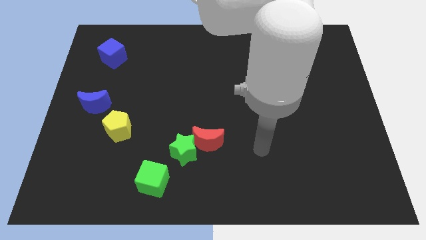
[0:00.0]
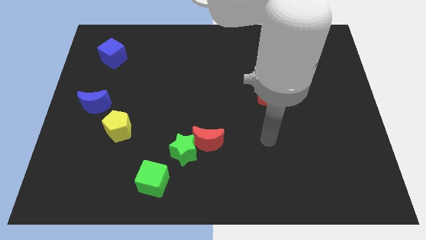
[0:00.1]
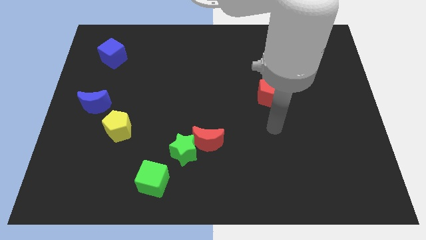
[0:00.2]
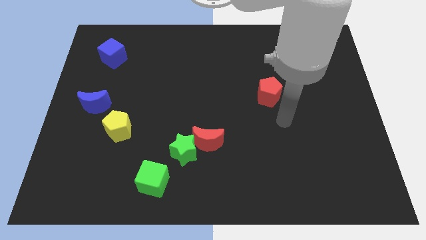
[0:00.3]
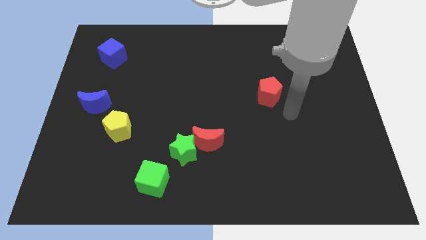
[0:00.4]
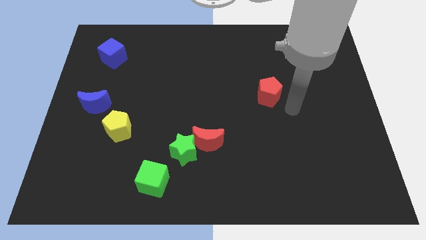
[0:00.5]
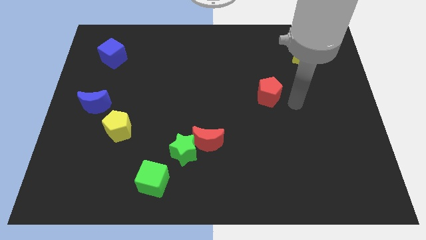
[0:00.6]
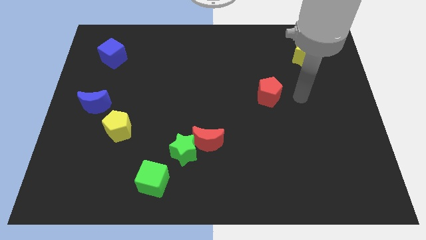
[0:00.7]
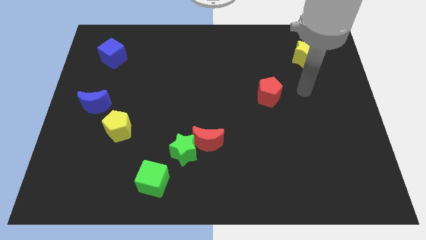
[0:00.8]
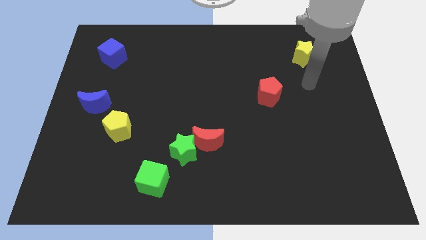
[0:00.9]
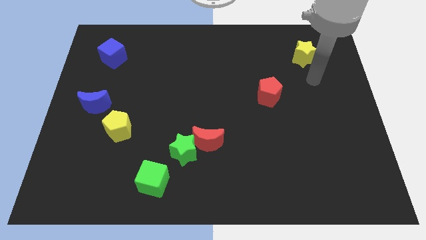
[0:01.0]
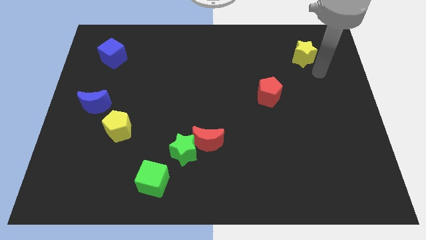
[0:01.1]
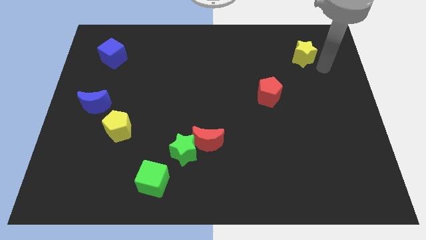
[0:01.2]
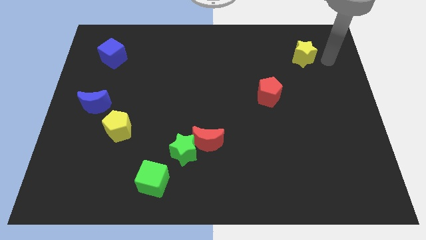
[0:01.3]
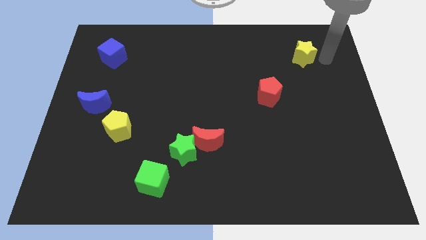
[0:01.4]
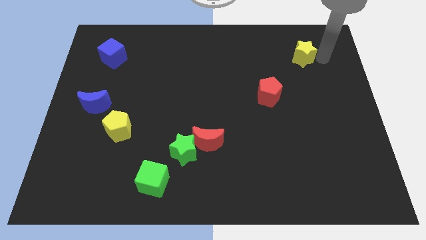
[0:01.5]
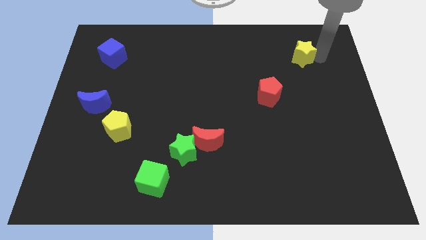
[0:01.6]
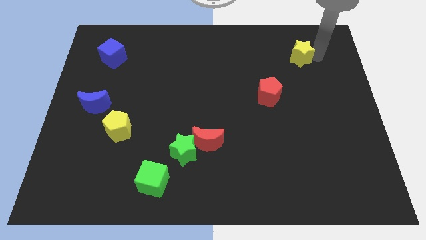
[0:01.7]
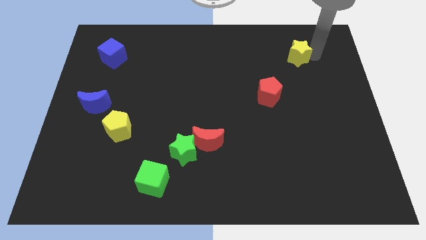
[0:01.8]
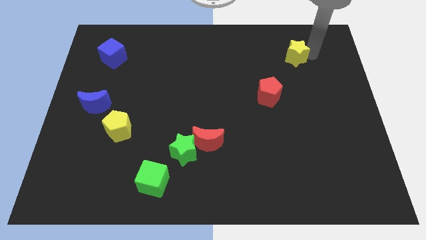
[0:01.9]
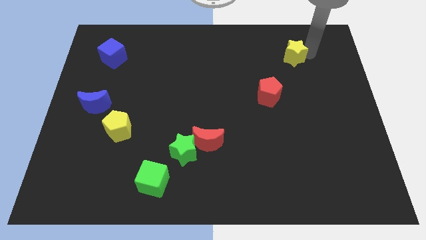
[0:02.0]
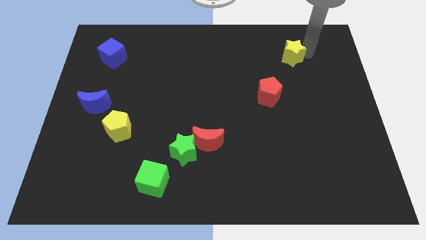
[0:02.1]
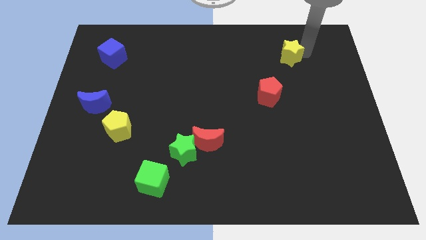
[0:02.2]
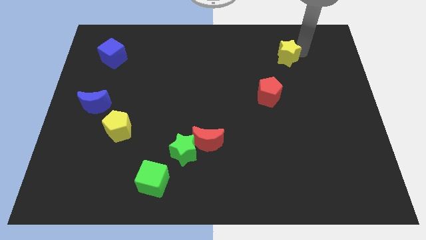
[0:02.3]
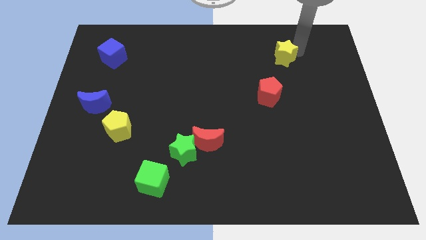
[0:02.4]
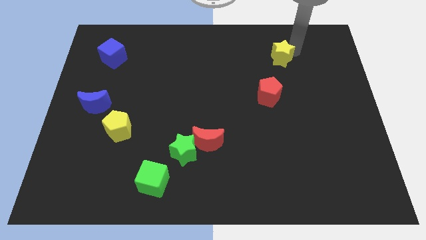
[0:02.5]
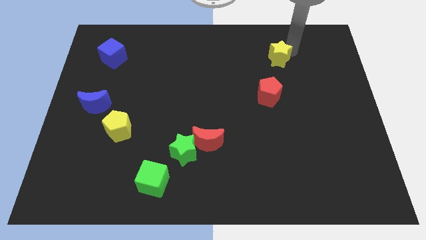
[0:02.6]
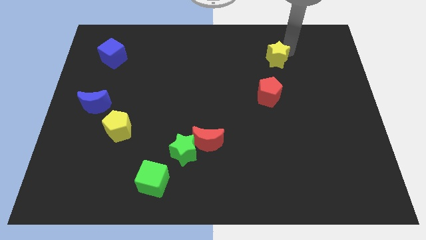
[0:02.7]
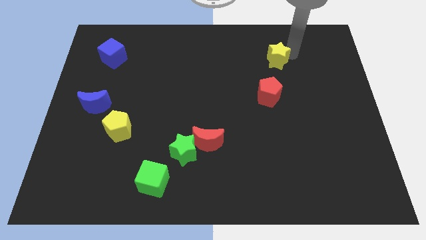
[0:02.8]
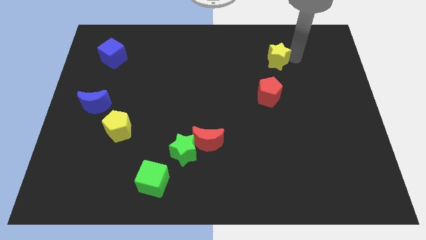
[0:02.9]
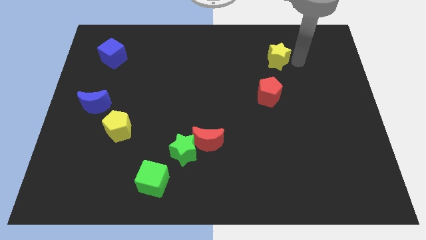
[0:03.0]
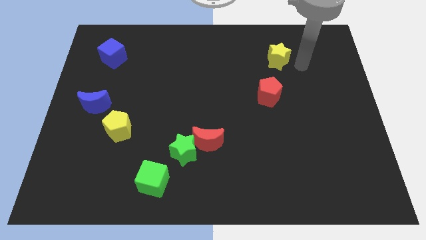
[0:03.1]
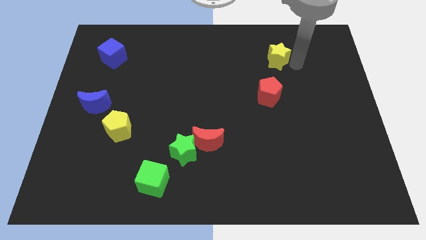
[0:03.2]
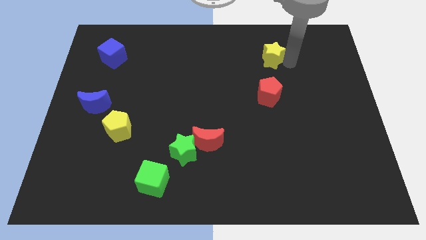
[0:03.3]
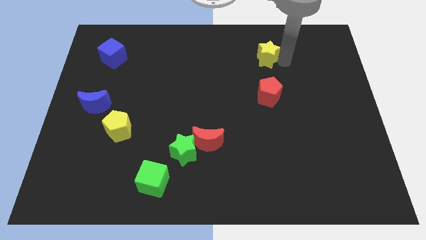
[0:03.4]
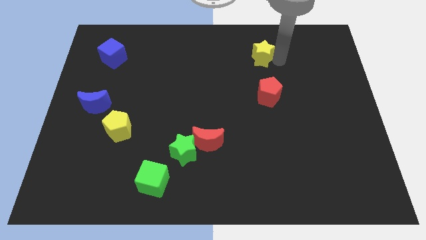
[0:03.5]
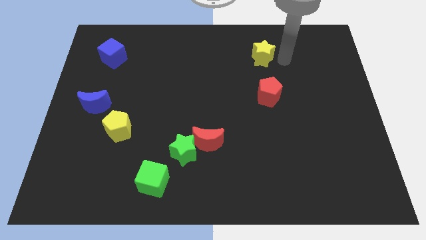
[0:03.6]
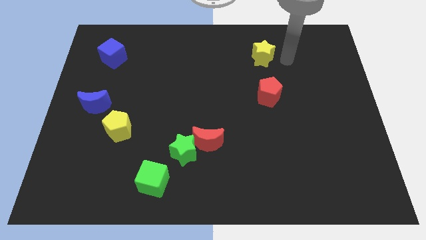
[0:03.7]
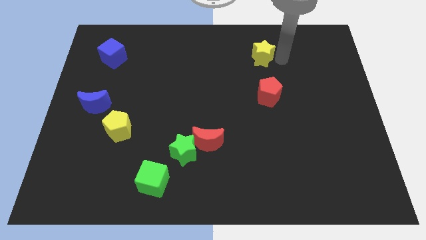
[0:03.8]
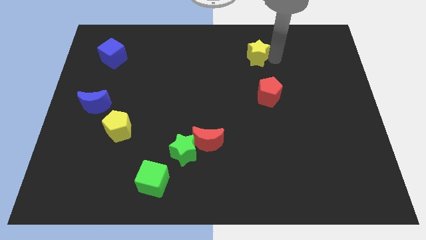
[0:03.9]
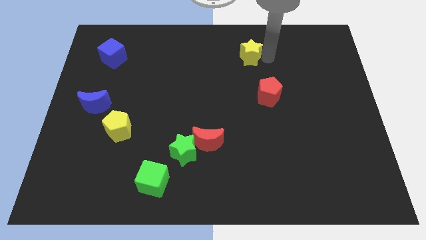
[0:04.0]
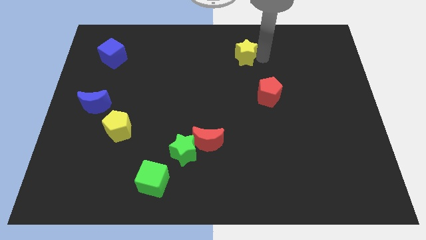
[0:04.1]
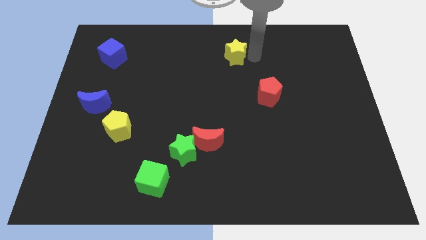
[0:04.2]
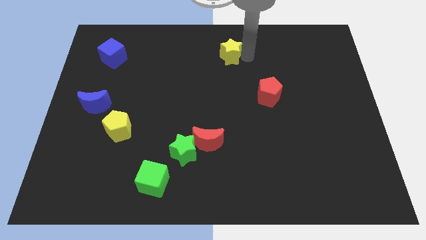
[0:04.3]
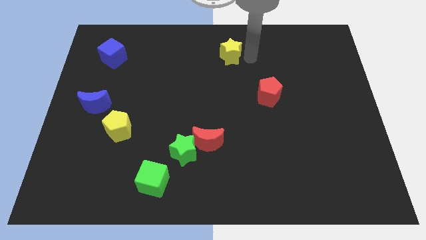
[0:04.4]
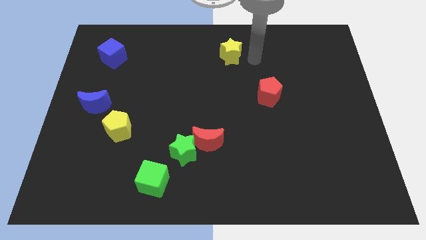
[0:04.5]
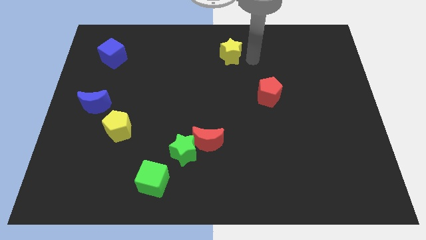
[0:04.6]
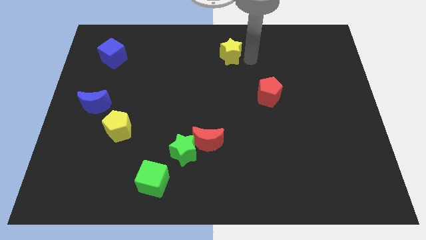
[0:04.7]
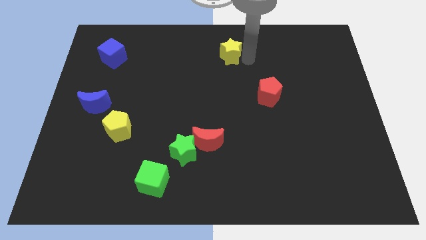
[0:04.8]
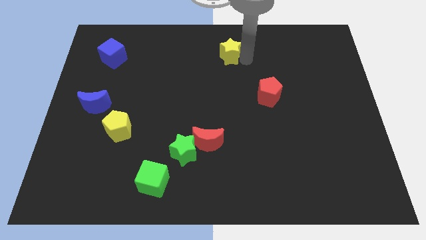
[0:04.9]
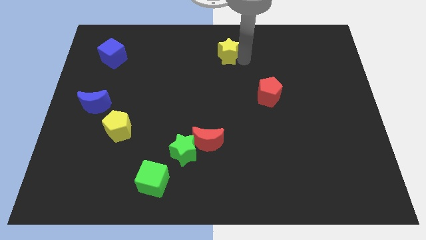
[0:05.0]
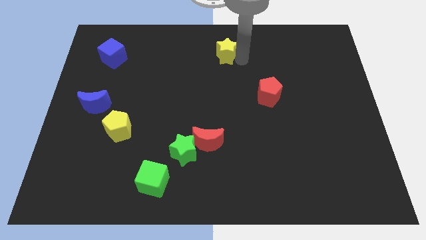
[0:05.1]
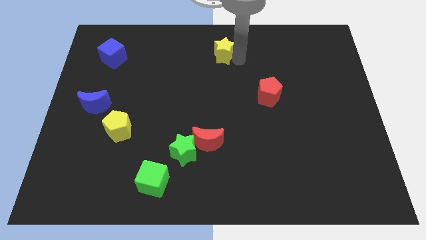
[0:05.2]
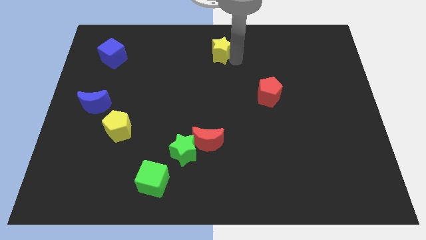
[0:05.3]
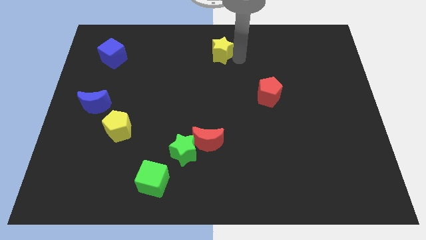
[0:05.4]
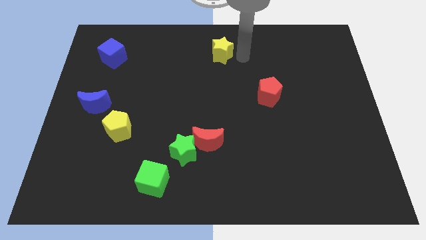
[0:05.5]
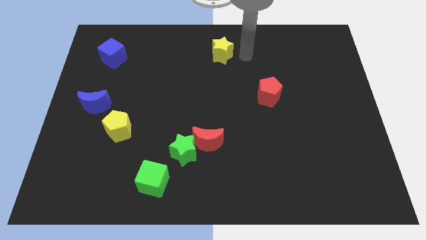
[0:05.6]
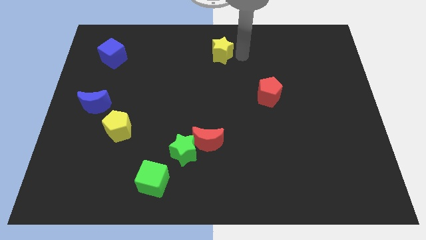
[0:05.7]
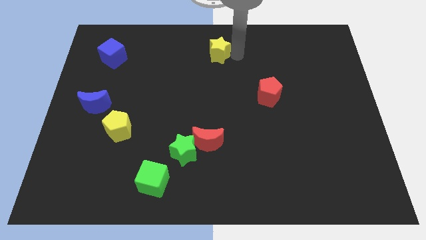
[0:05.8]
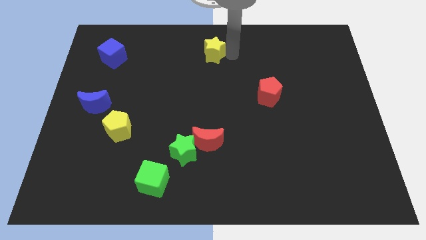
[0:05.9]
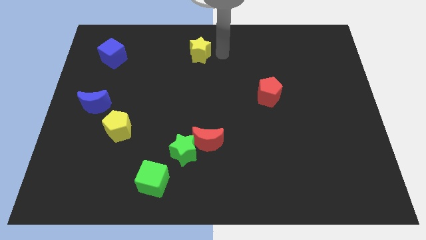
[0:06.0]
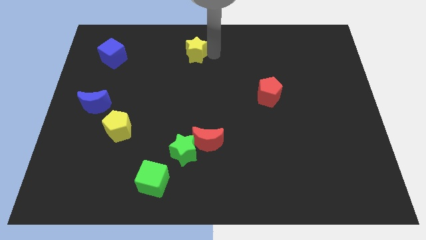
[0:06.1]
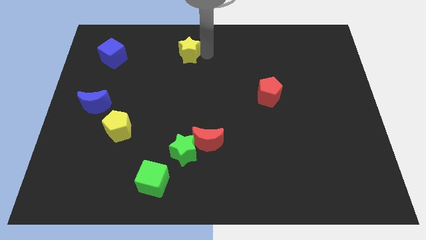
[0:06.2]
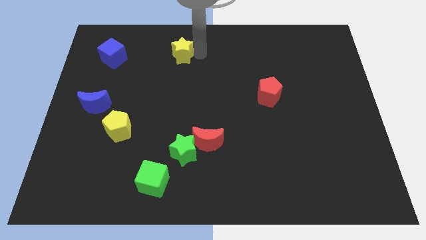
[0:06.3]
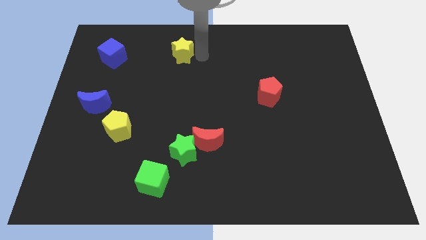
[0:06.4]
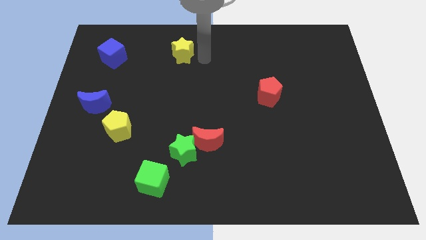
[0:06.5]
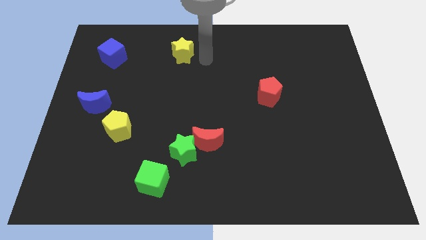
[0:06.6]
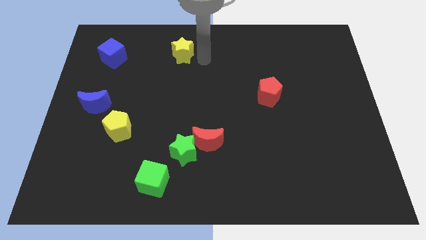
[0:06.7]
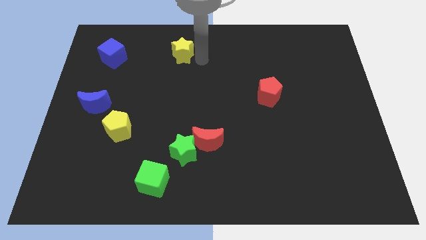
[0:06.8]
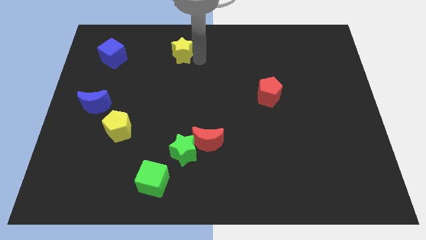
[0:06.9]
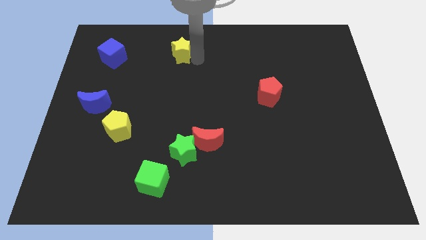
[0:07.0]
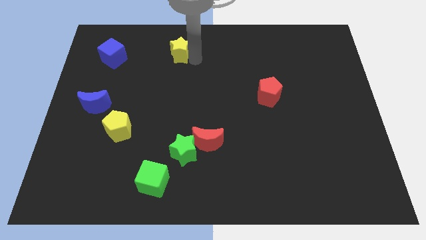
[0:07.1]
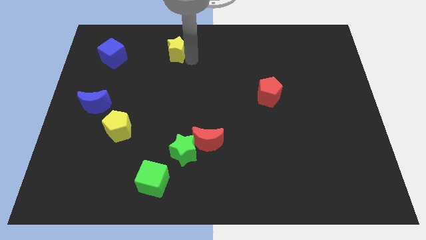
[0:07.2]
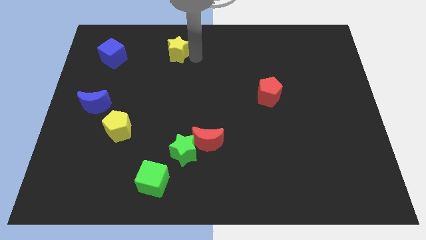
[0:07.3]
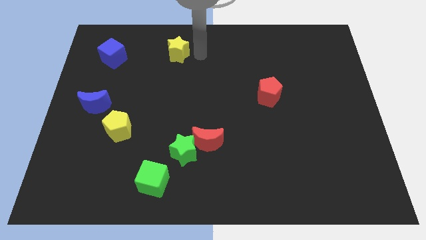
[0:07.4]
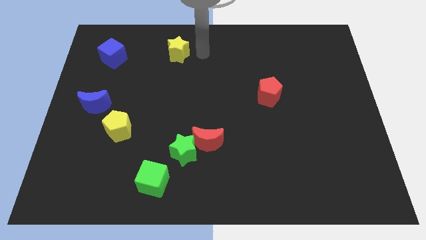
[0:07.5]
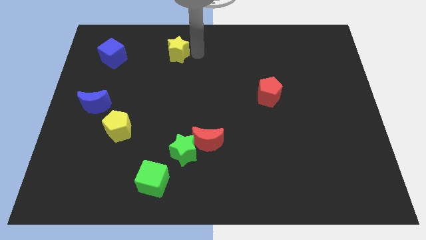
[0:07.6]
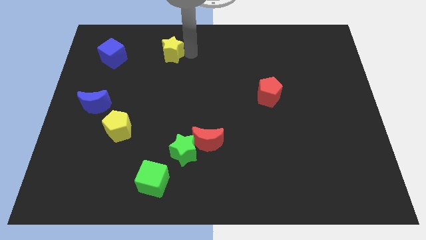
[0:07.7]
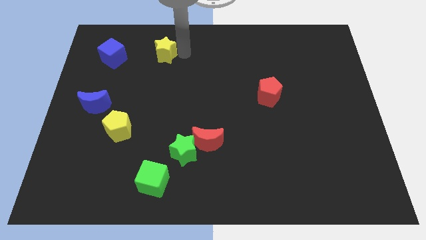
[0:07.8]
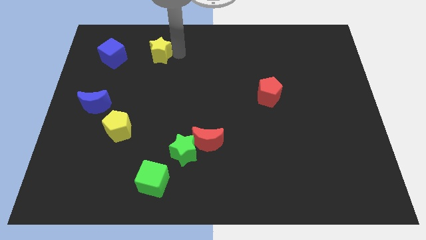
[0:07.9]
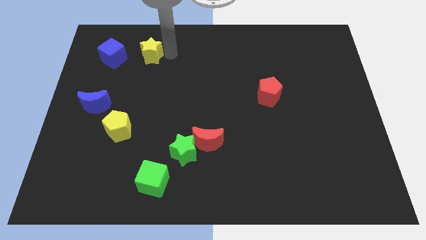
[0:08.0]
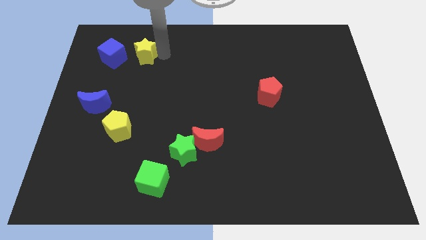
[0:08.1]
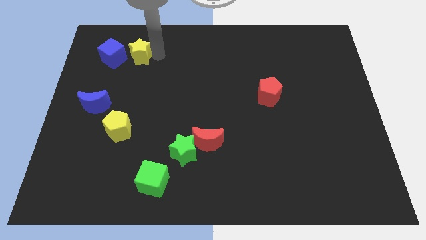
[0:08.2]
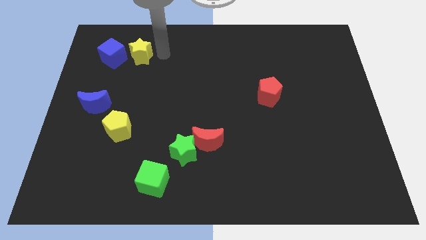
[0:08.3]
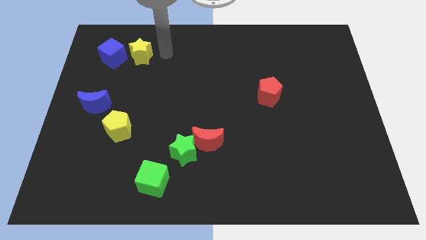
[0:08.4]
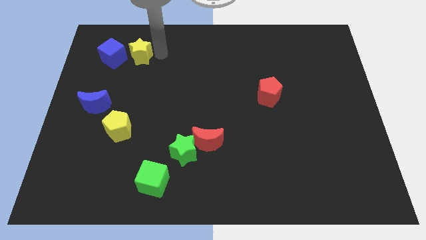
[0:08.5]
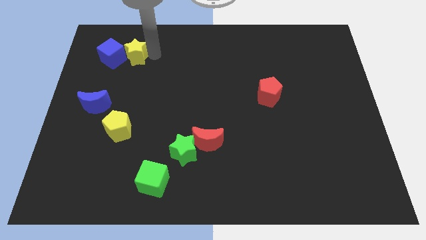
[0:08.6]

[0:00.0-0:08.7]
move the yellow star to the blue cube
